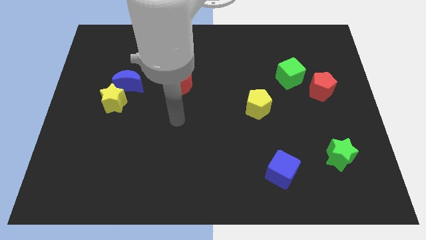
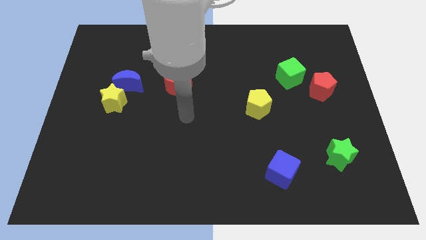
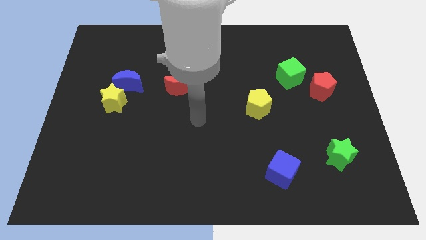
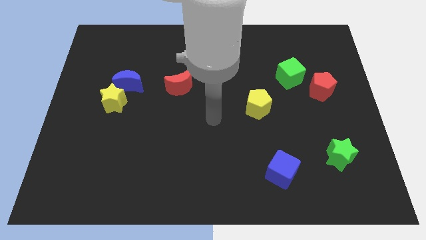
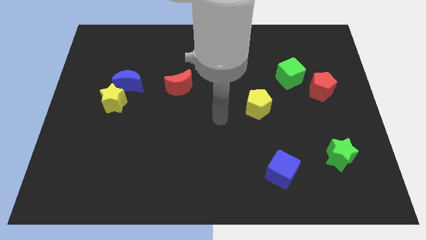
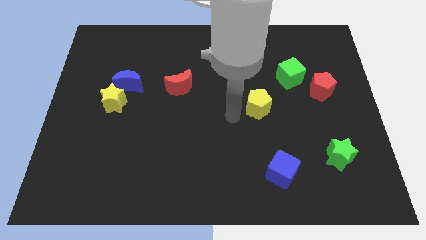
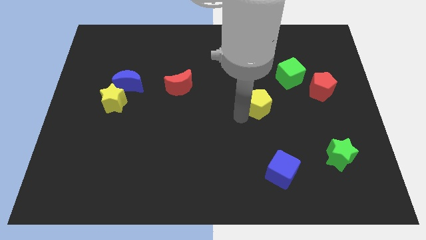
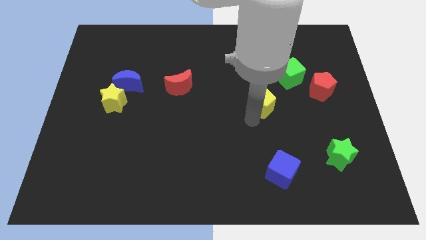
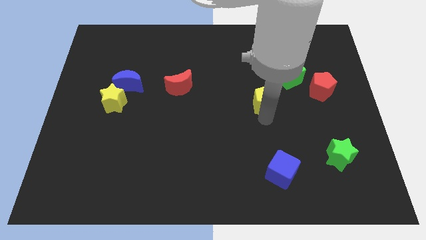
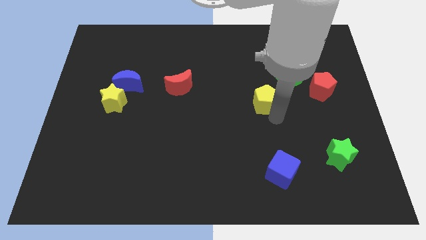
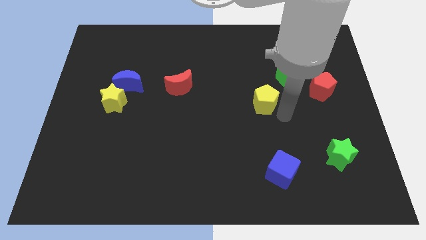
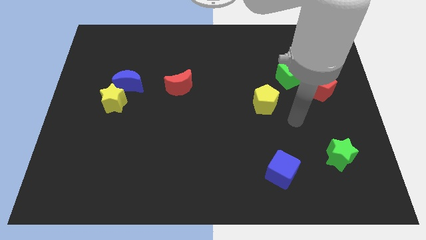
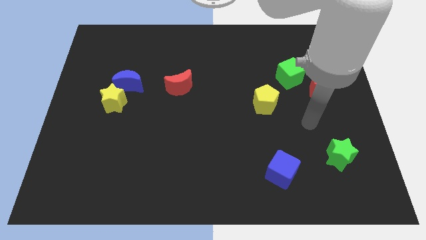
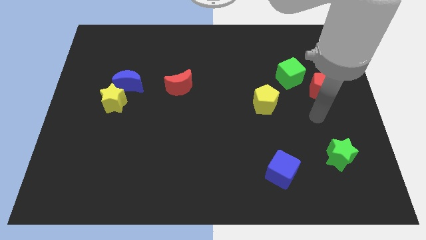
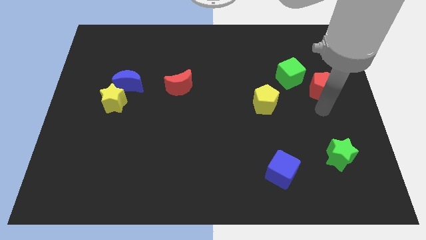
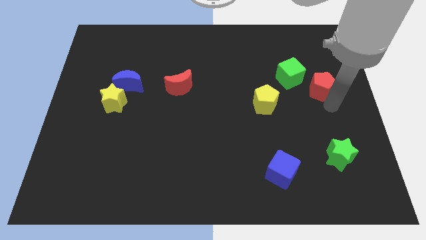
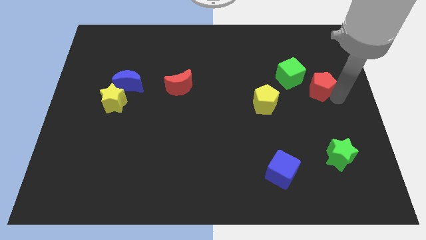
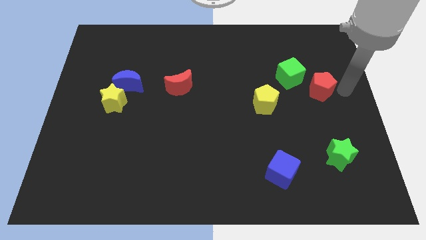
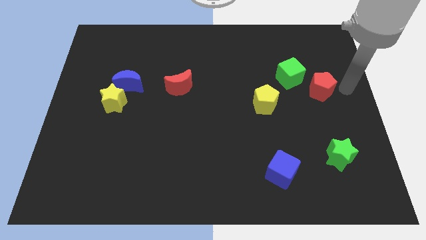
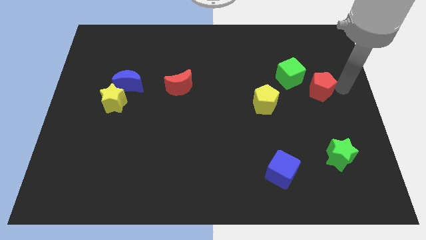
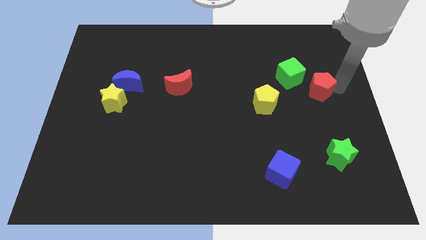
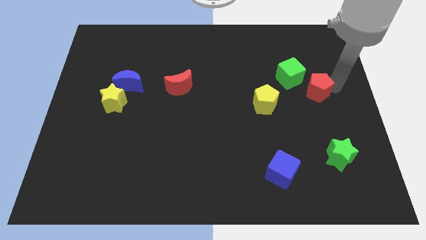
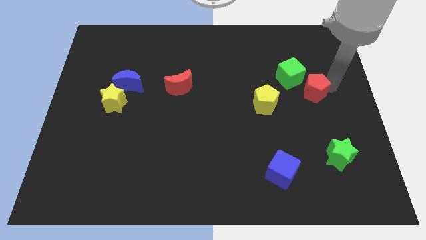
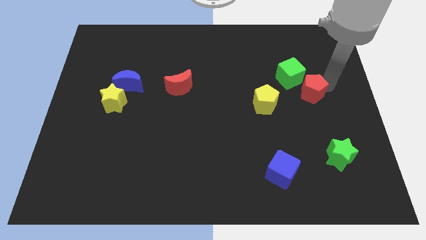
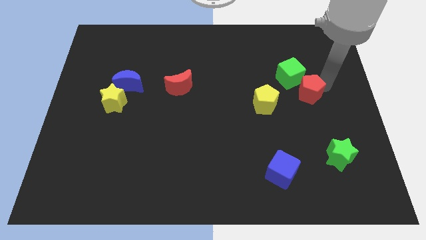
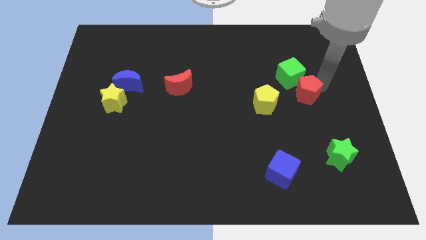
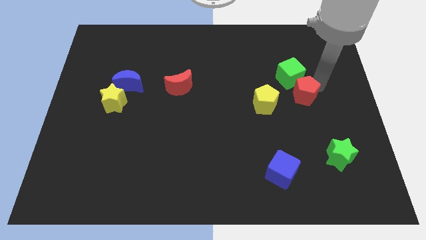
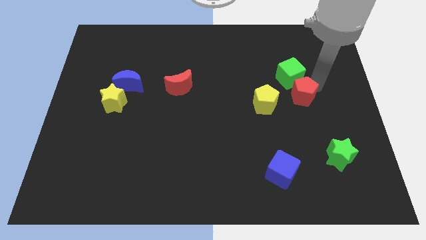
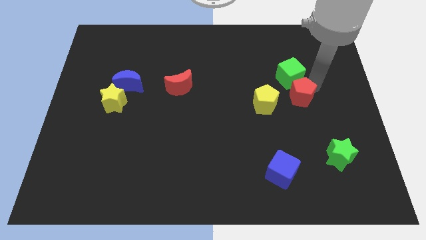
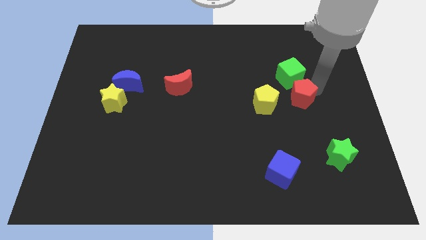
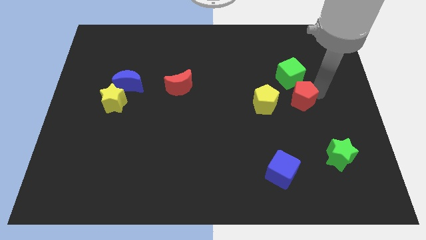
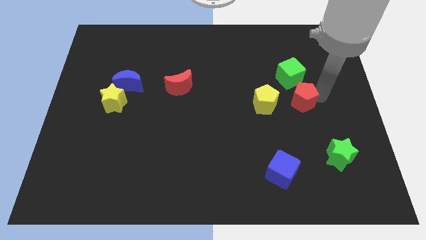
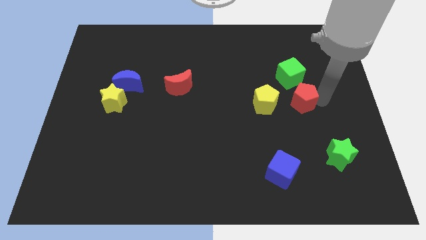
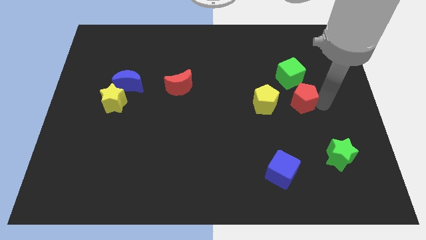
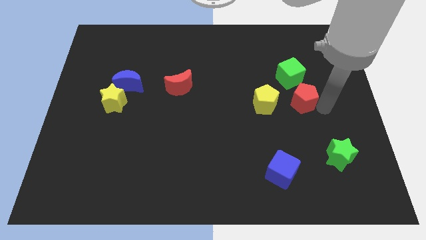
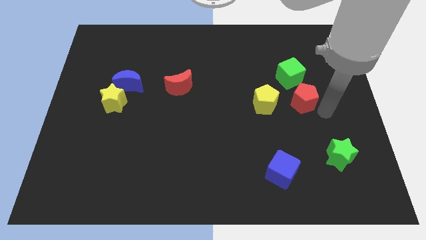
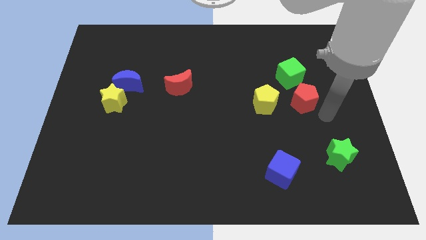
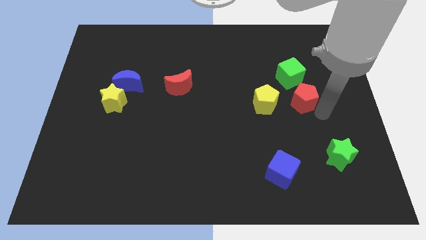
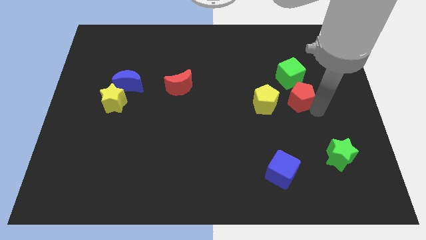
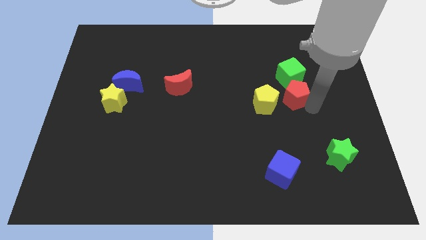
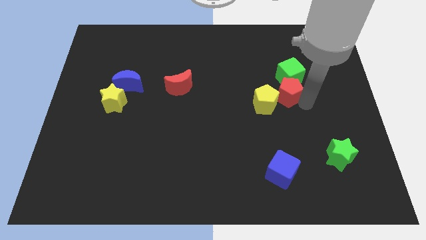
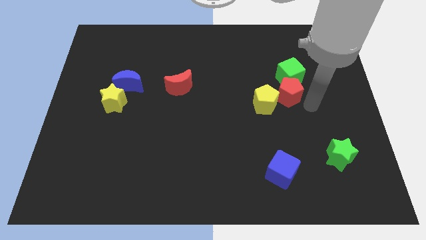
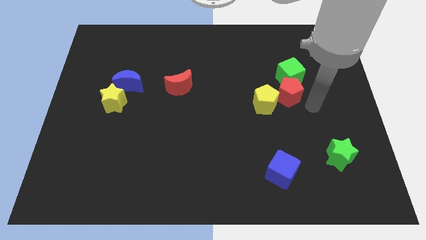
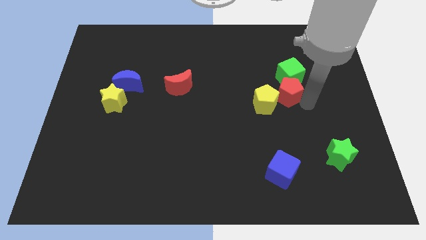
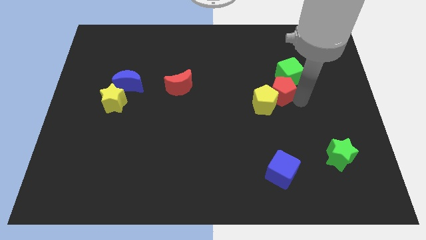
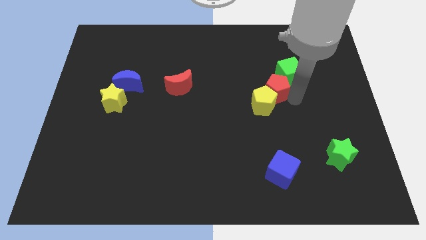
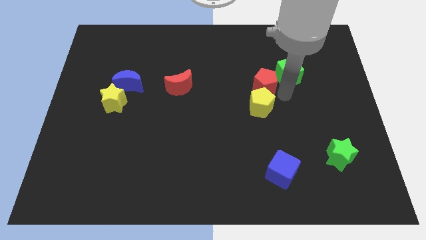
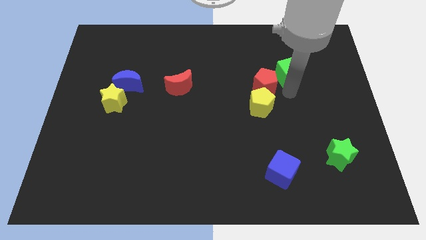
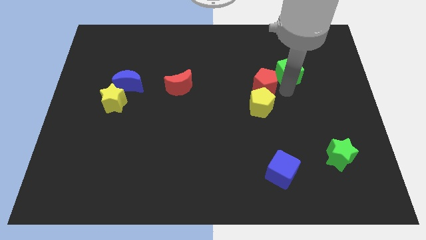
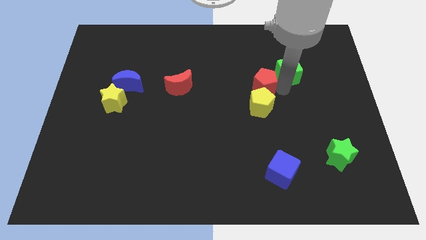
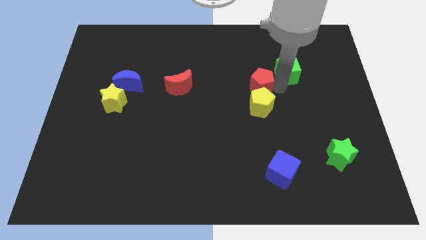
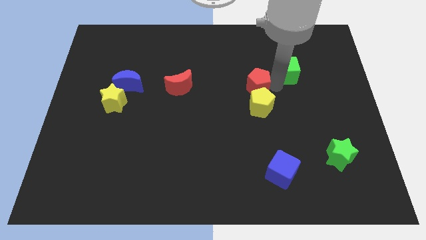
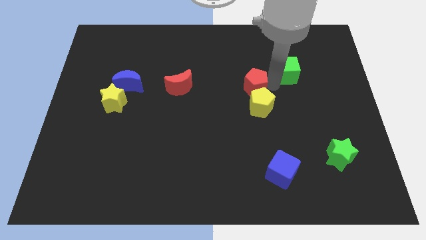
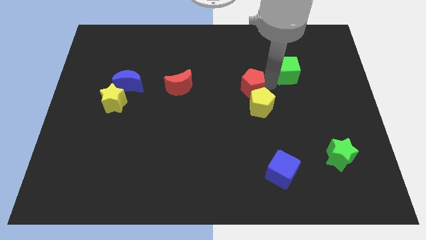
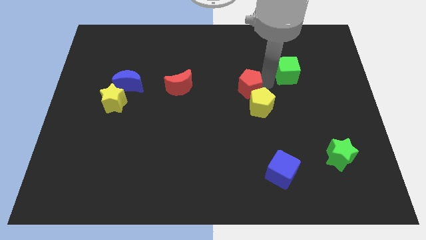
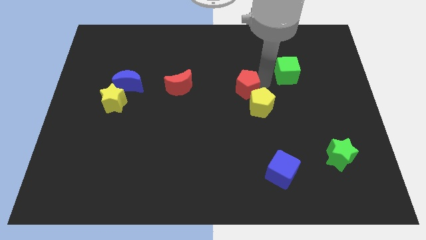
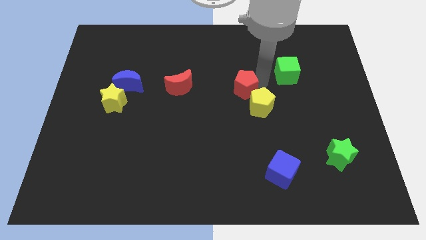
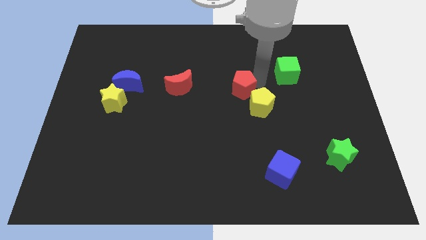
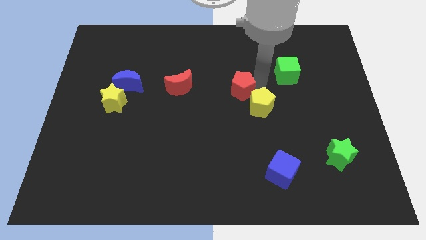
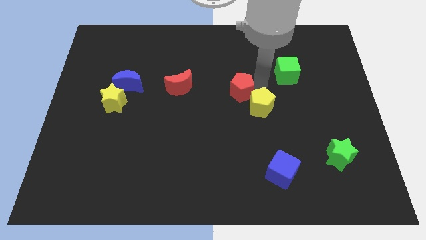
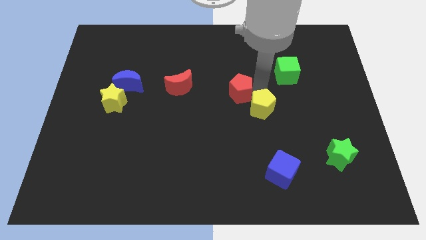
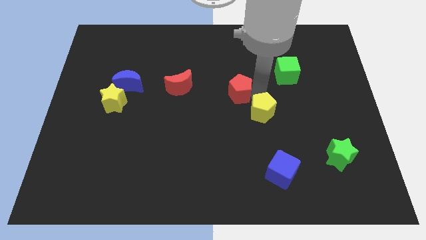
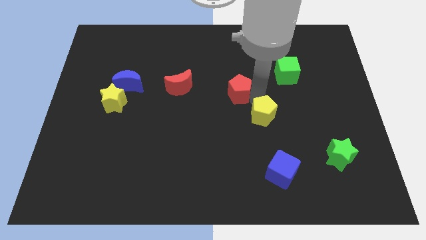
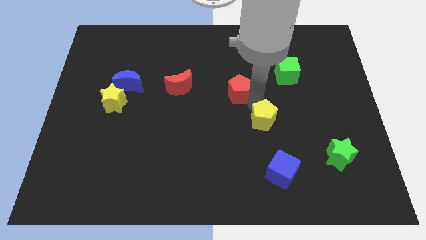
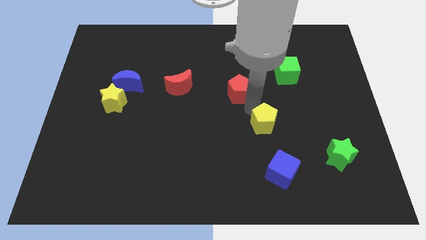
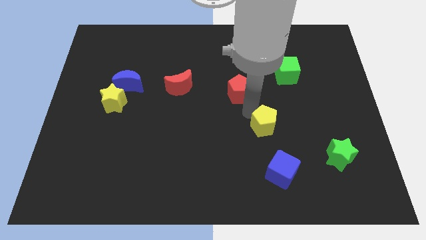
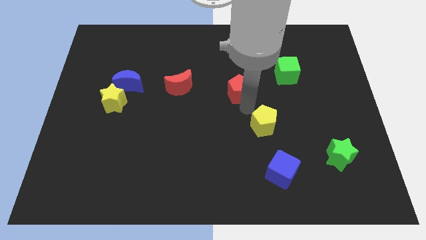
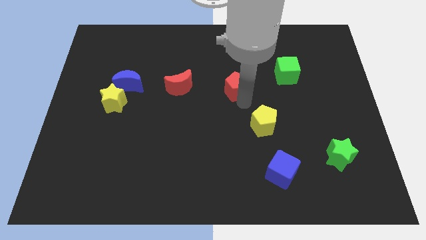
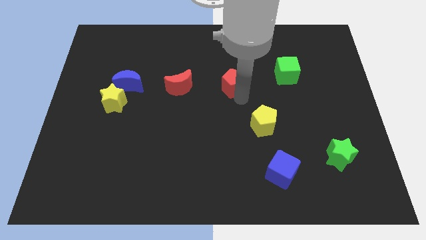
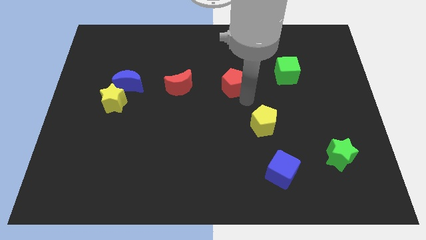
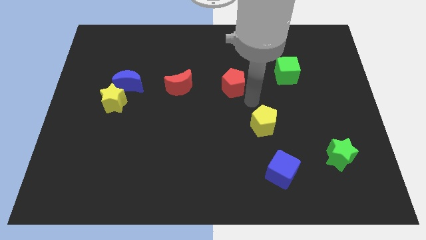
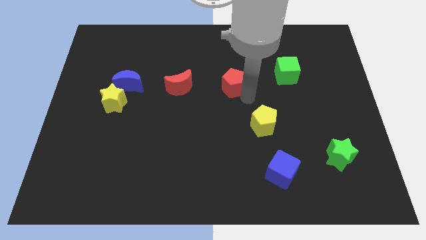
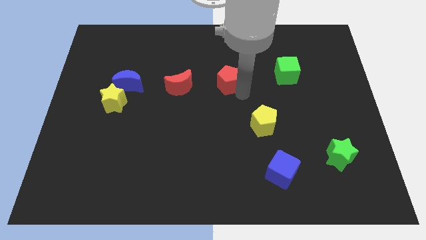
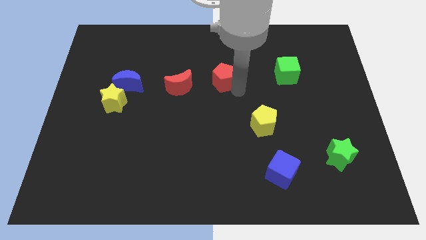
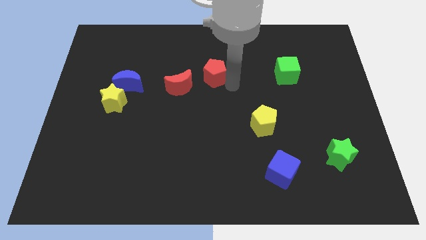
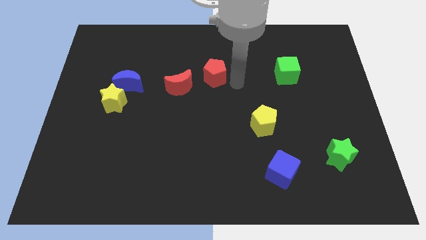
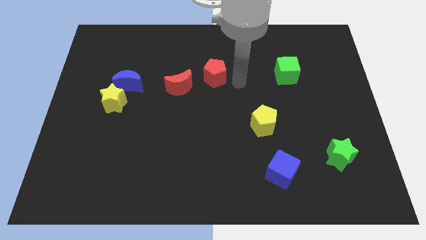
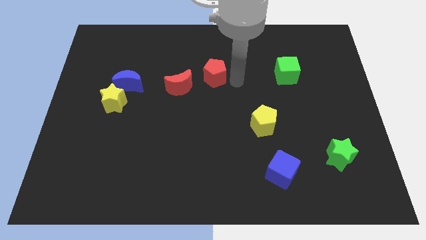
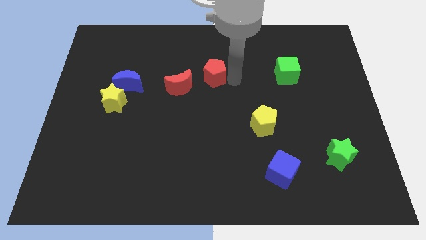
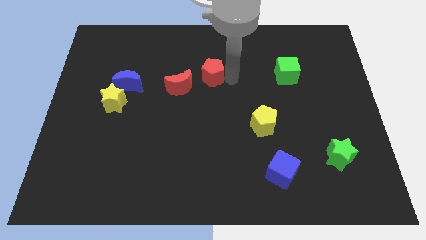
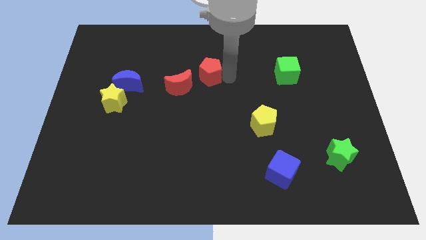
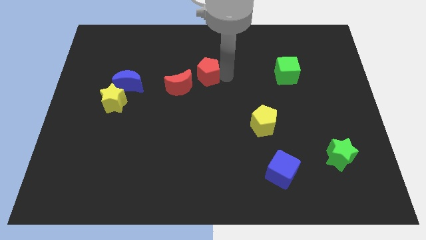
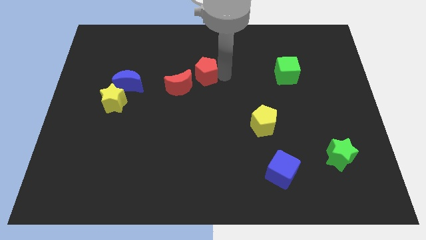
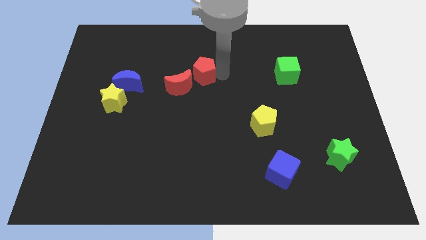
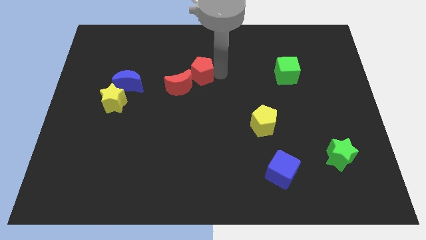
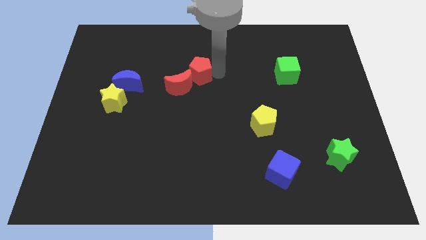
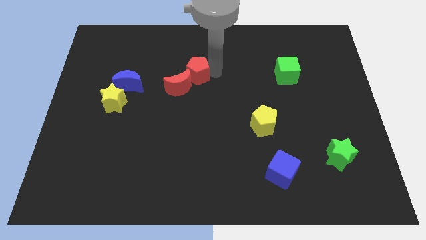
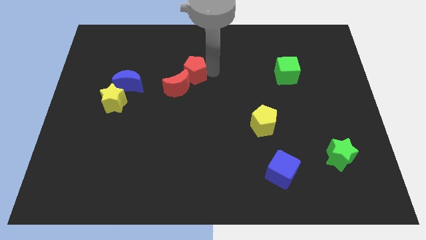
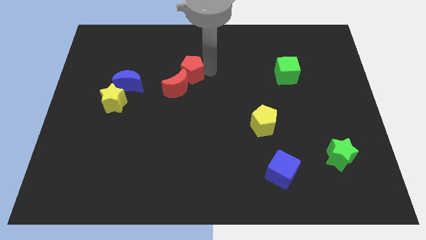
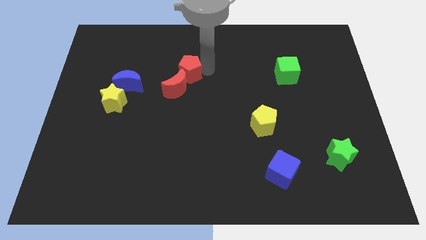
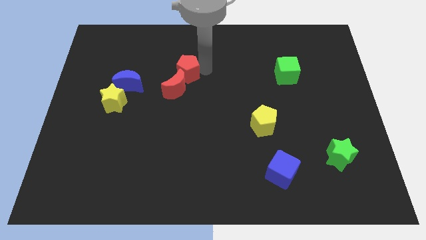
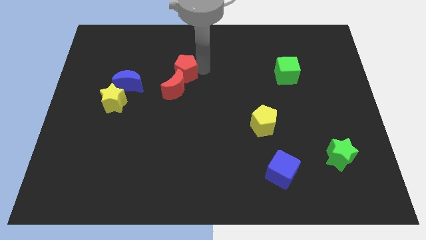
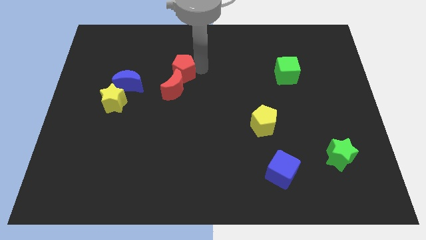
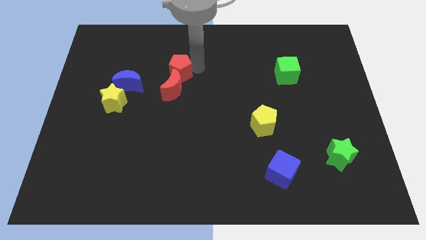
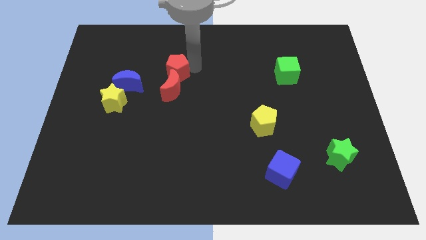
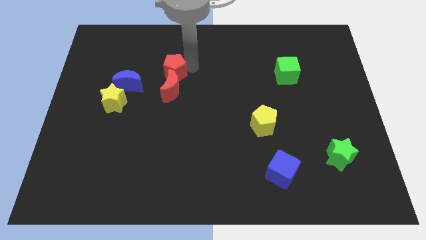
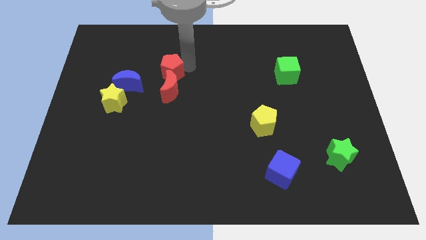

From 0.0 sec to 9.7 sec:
put the red pentagon to the top right of the blue moon
